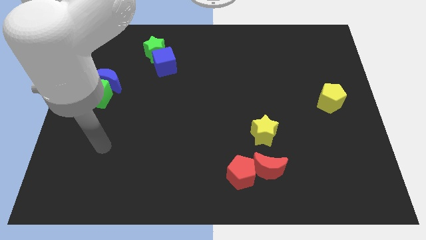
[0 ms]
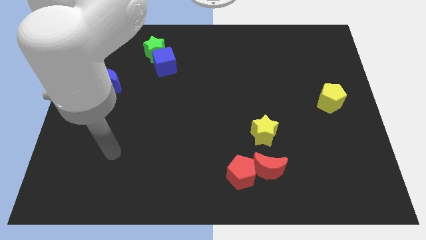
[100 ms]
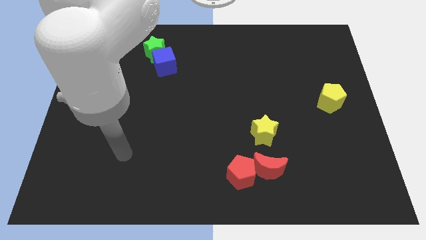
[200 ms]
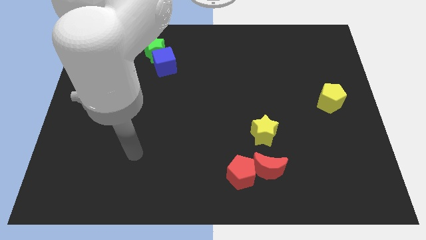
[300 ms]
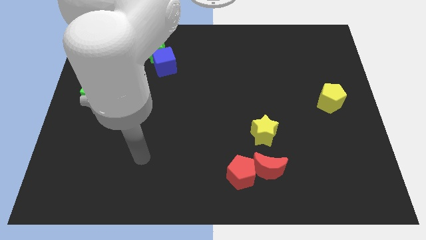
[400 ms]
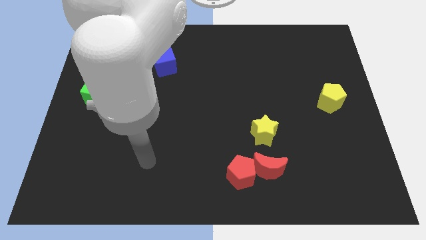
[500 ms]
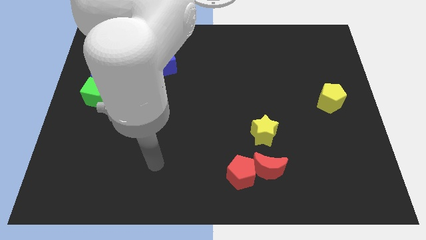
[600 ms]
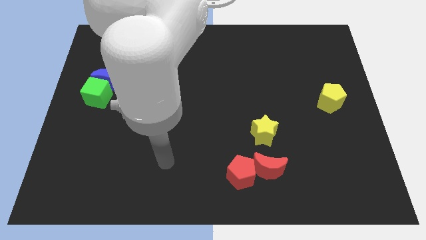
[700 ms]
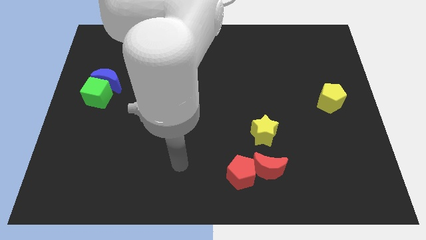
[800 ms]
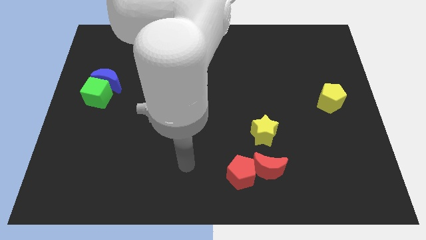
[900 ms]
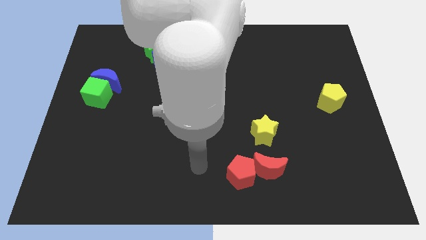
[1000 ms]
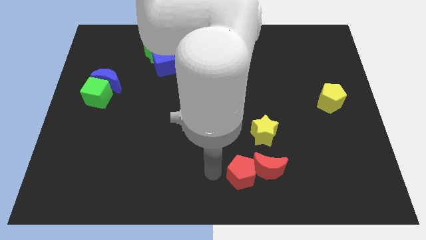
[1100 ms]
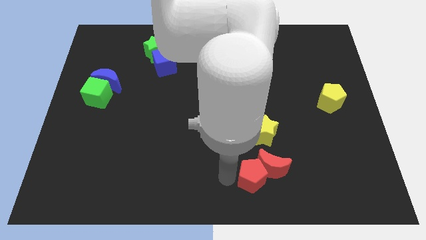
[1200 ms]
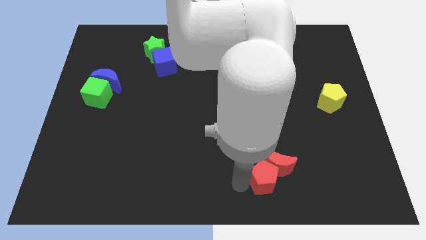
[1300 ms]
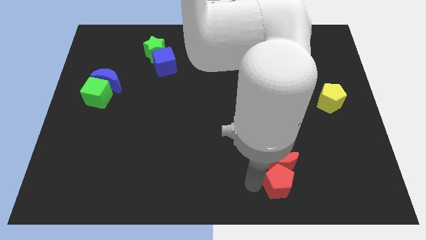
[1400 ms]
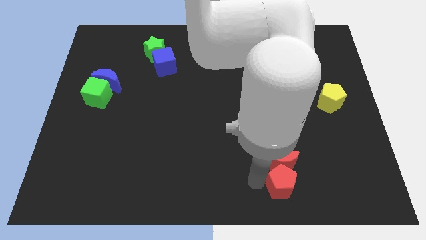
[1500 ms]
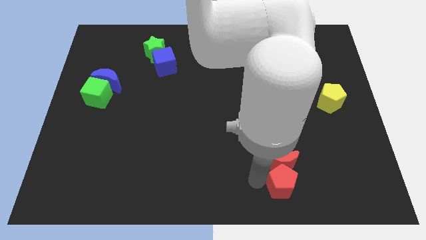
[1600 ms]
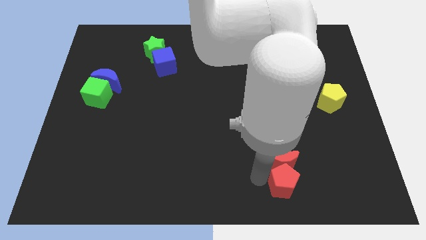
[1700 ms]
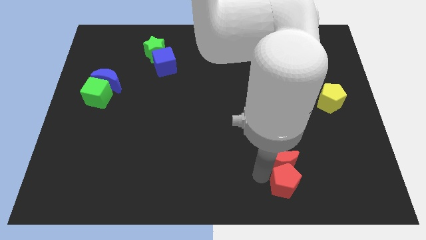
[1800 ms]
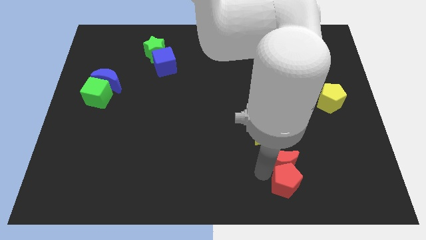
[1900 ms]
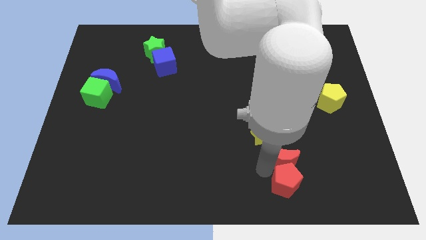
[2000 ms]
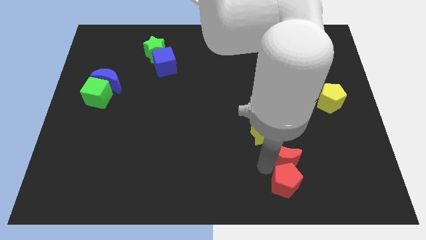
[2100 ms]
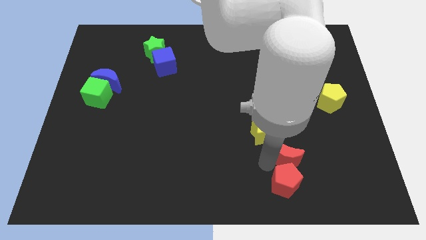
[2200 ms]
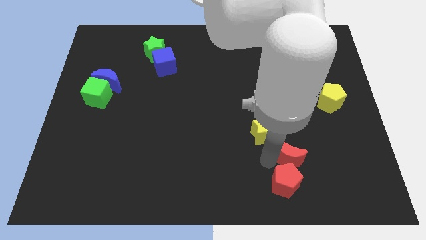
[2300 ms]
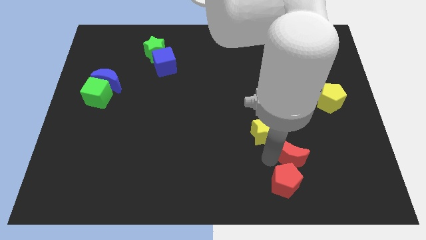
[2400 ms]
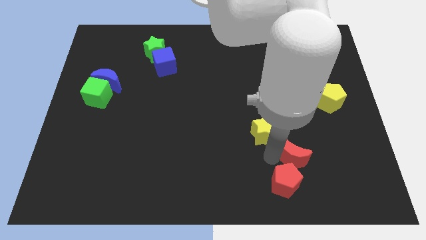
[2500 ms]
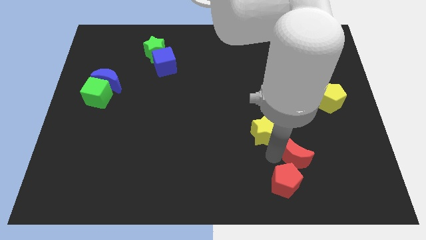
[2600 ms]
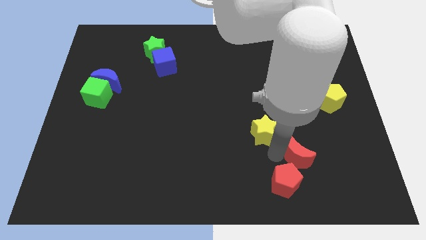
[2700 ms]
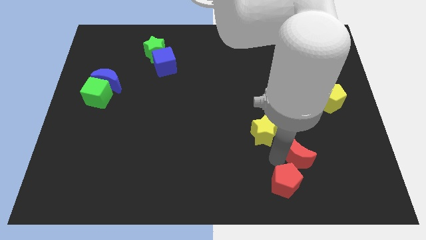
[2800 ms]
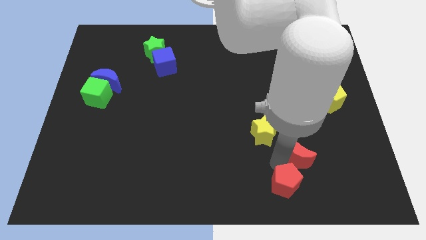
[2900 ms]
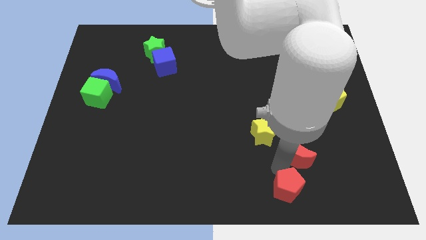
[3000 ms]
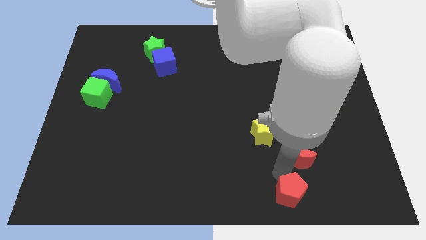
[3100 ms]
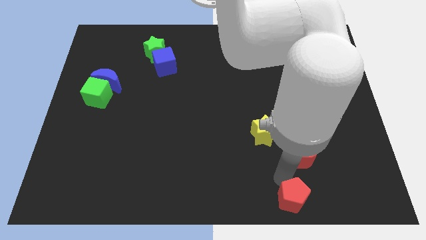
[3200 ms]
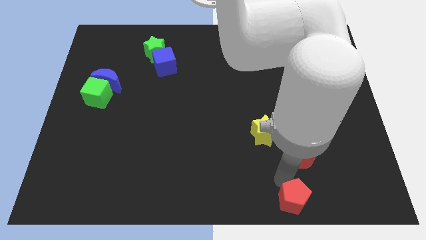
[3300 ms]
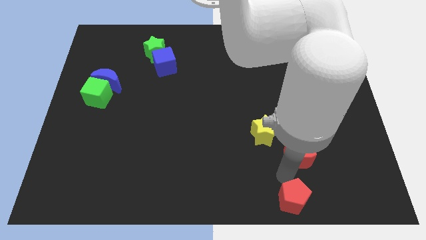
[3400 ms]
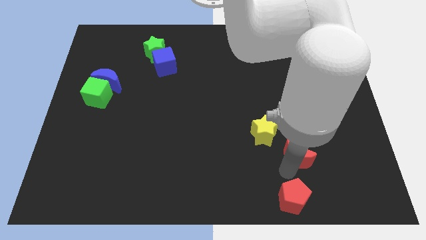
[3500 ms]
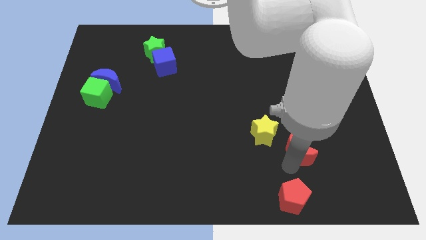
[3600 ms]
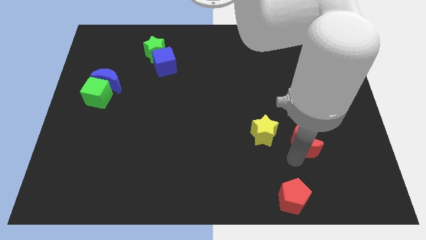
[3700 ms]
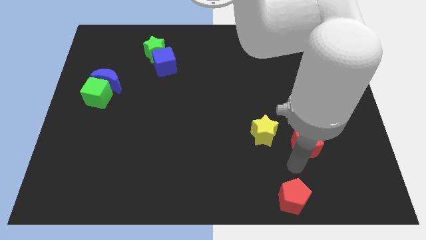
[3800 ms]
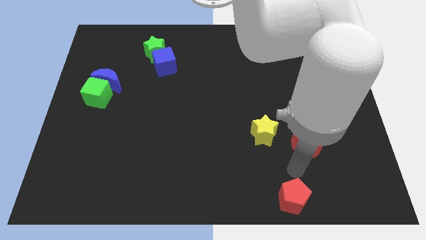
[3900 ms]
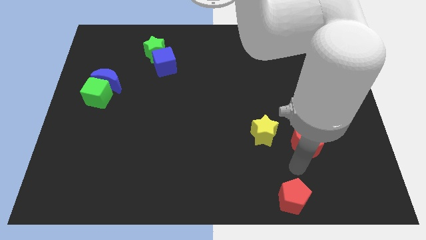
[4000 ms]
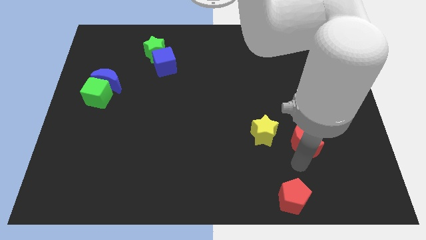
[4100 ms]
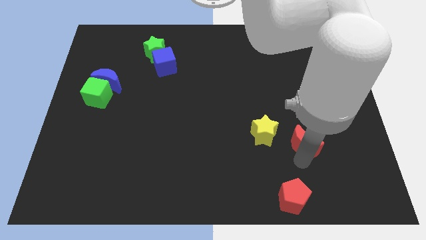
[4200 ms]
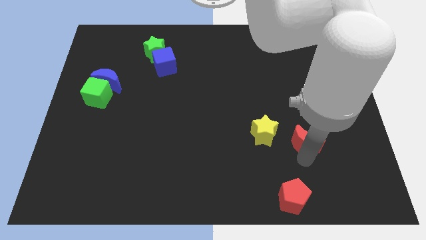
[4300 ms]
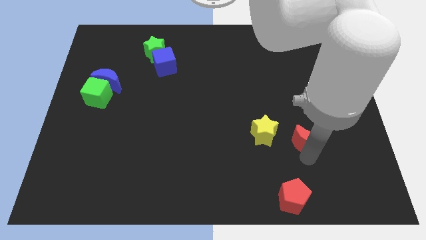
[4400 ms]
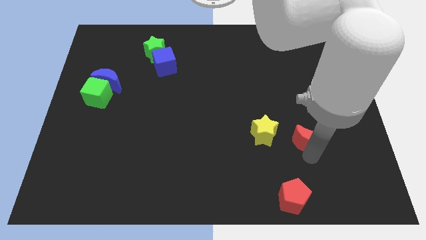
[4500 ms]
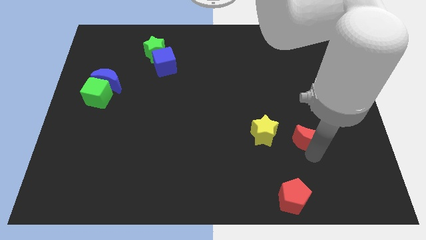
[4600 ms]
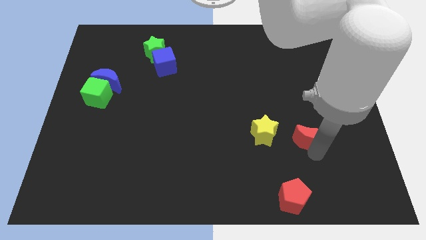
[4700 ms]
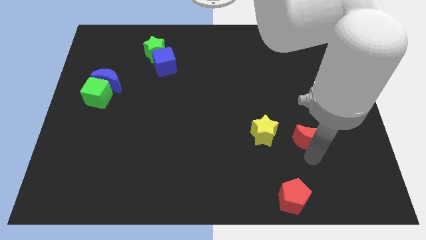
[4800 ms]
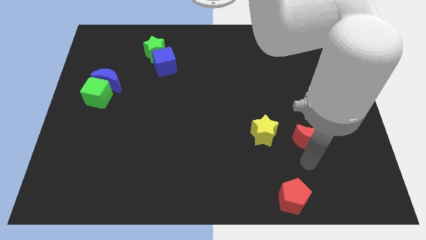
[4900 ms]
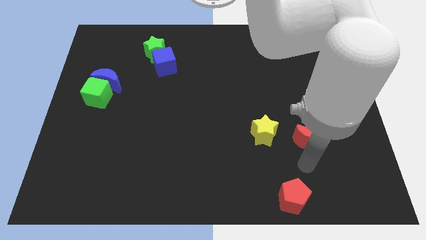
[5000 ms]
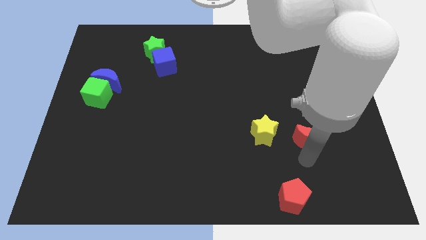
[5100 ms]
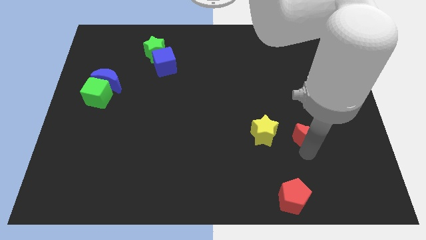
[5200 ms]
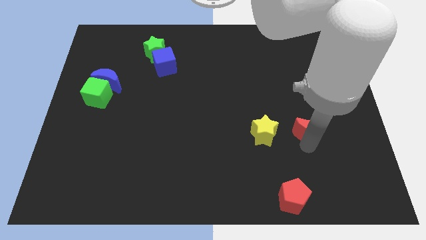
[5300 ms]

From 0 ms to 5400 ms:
move the red moon to the bottom left side of the yellow pentagon

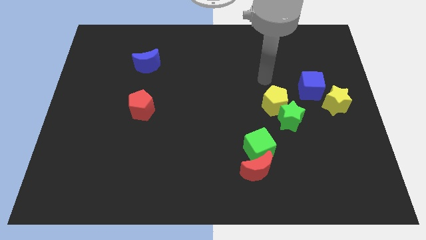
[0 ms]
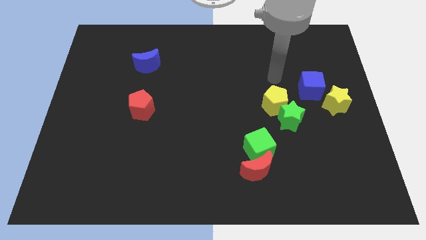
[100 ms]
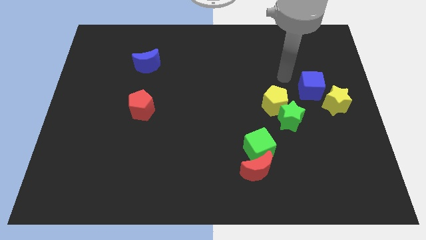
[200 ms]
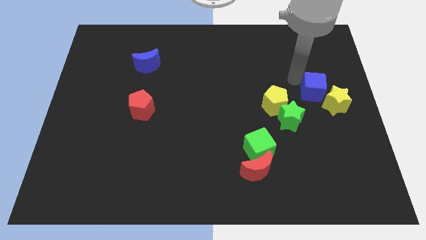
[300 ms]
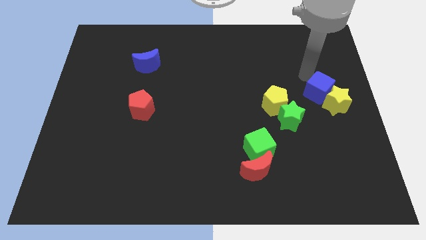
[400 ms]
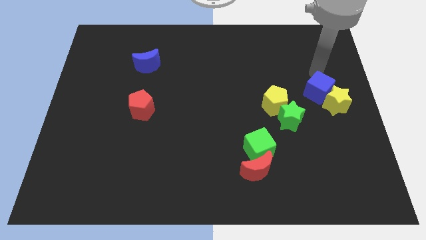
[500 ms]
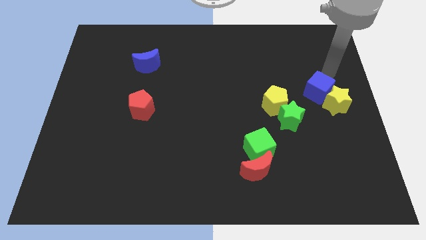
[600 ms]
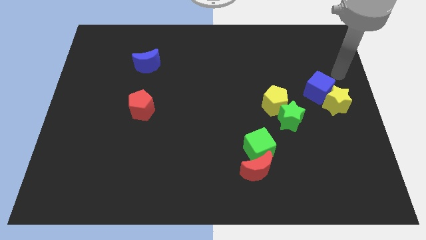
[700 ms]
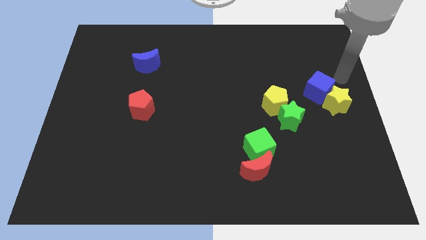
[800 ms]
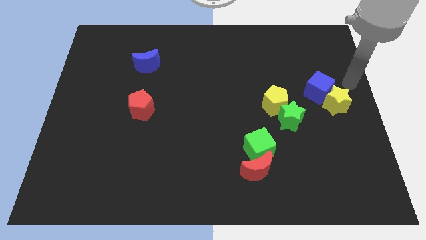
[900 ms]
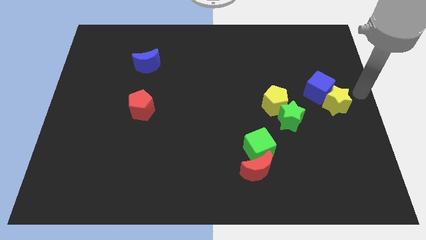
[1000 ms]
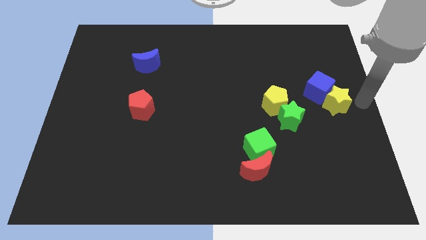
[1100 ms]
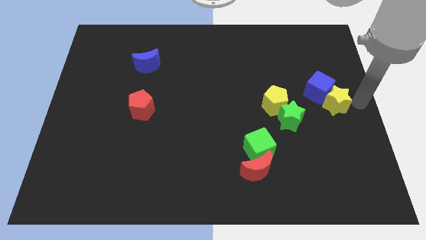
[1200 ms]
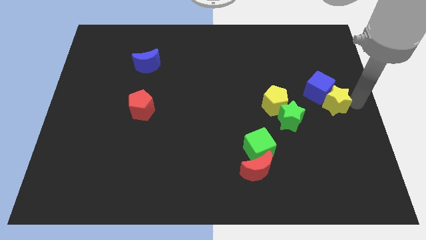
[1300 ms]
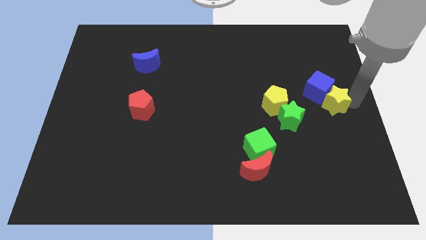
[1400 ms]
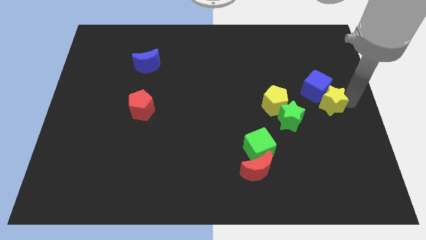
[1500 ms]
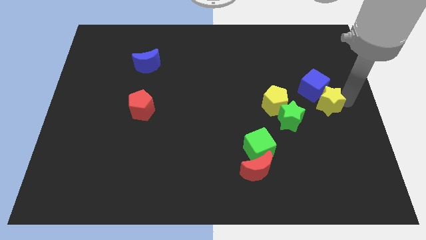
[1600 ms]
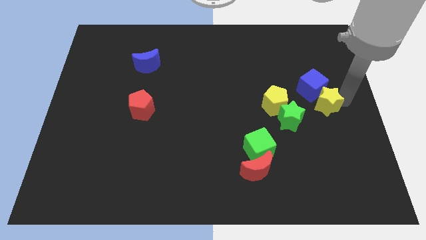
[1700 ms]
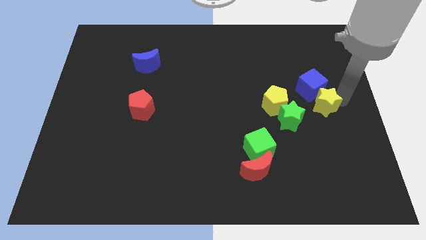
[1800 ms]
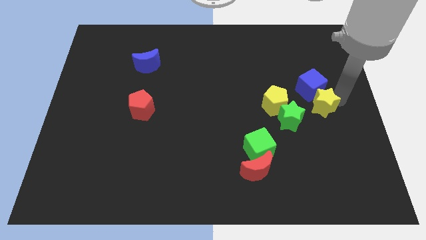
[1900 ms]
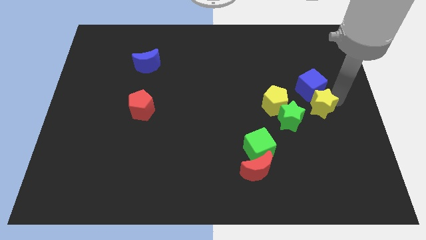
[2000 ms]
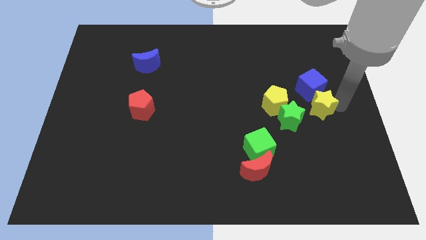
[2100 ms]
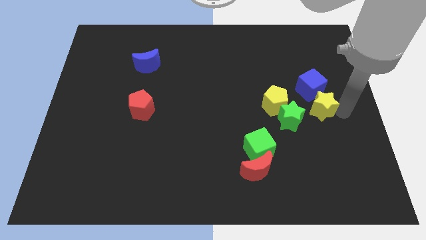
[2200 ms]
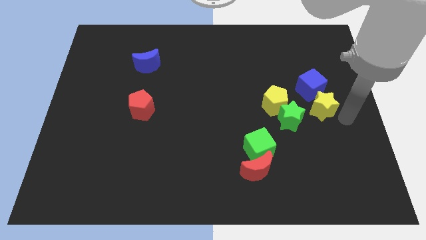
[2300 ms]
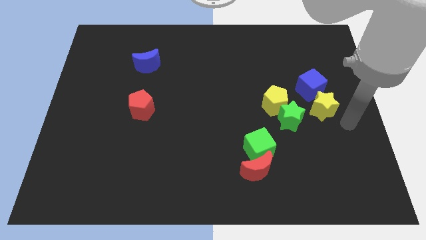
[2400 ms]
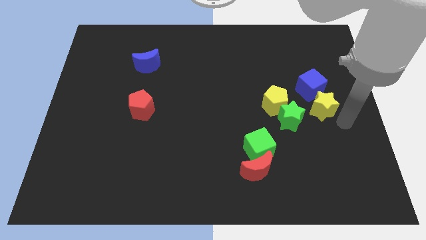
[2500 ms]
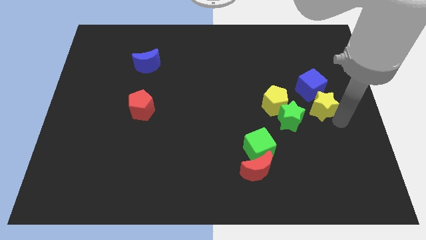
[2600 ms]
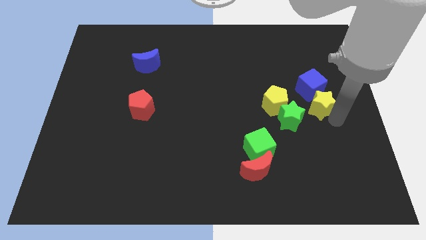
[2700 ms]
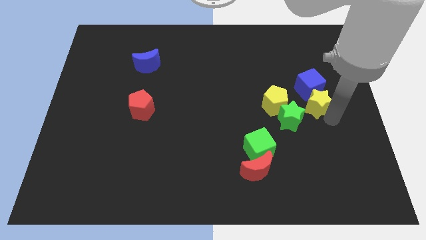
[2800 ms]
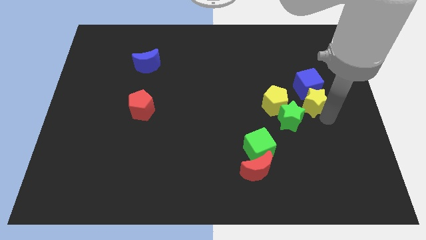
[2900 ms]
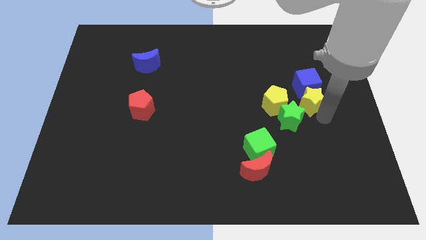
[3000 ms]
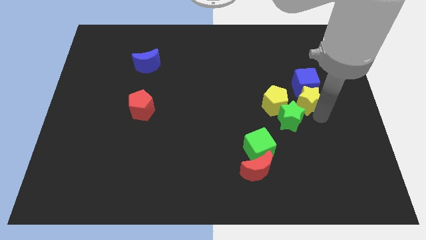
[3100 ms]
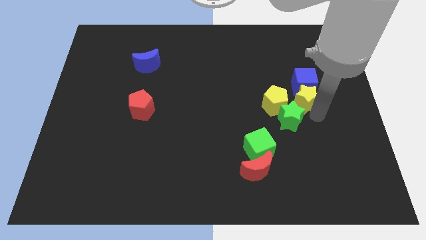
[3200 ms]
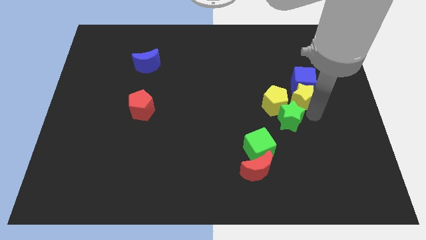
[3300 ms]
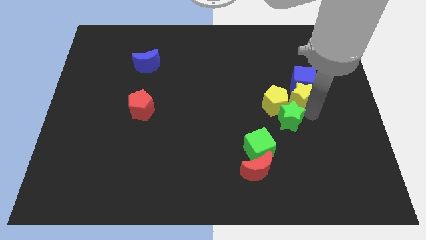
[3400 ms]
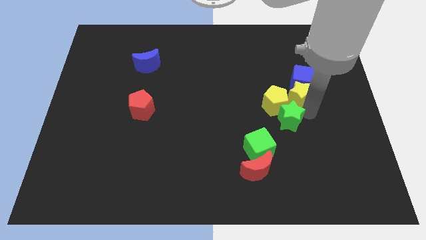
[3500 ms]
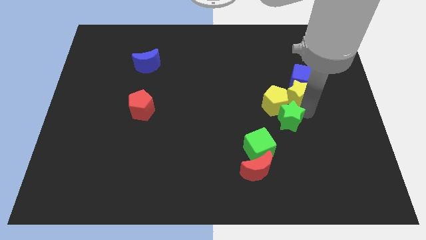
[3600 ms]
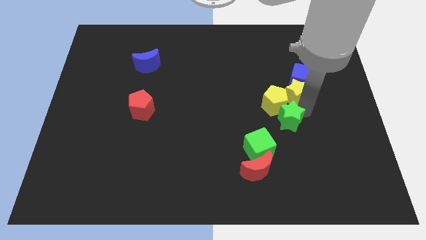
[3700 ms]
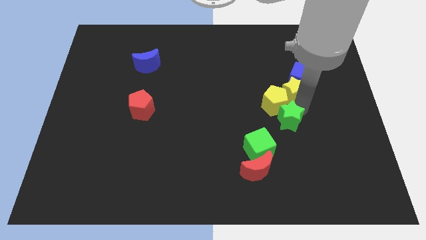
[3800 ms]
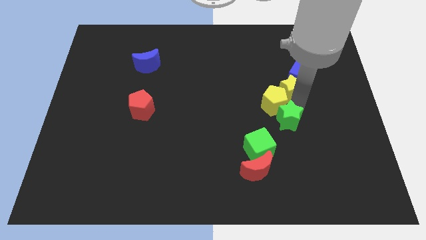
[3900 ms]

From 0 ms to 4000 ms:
put the yellow star to the top of the yellow pentagon
